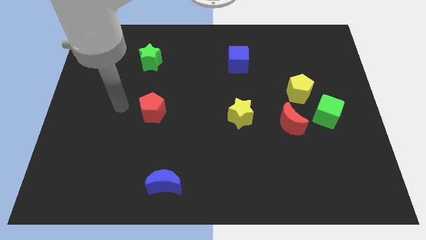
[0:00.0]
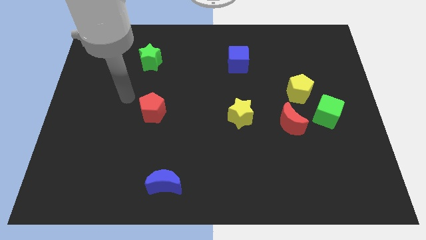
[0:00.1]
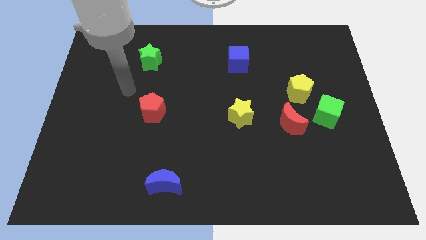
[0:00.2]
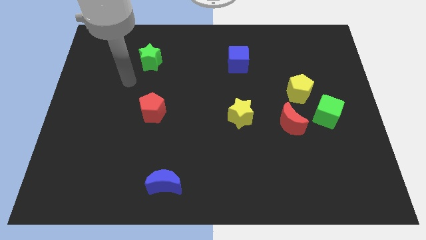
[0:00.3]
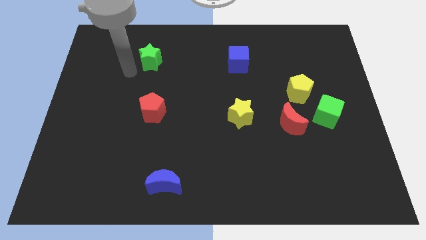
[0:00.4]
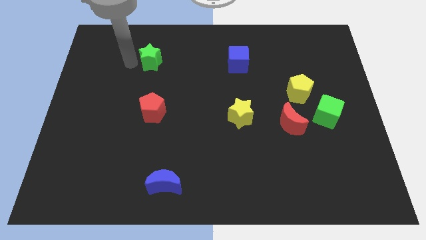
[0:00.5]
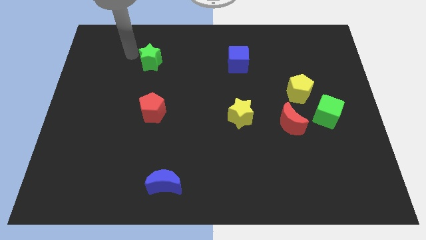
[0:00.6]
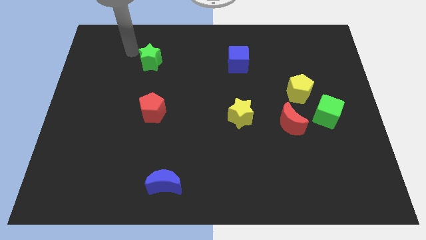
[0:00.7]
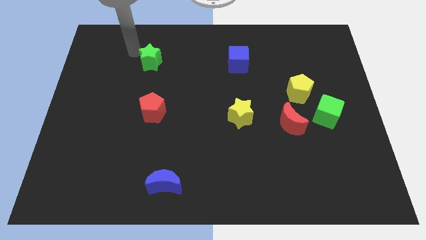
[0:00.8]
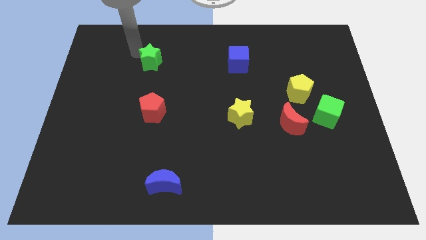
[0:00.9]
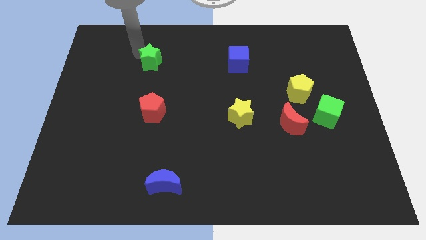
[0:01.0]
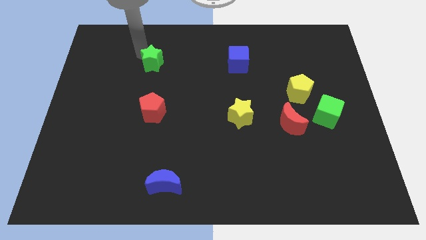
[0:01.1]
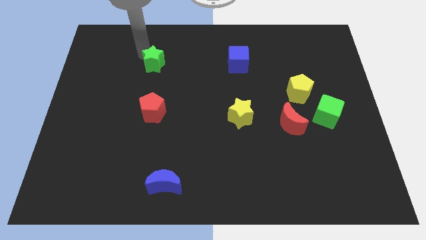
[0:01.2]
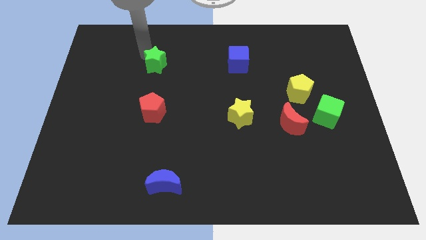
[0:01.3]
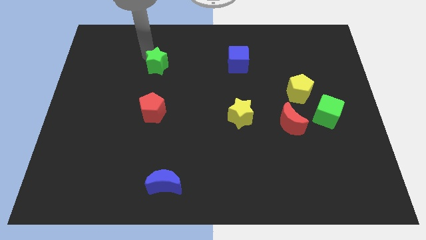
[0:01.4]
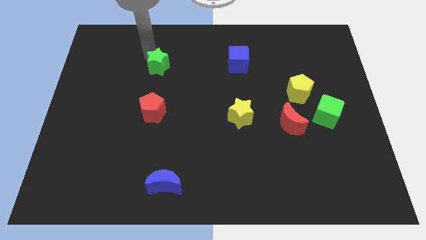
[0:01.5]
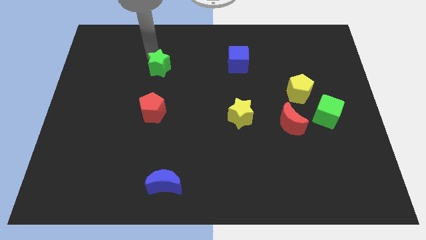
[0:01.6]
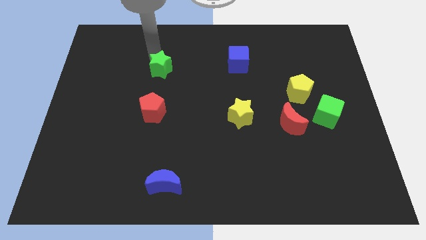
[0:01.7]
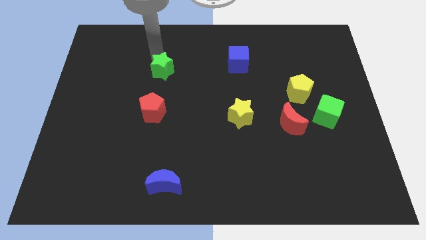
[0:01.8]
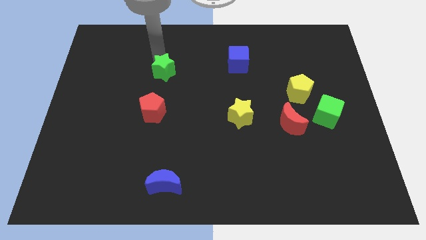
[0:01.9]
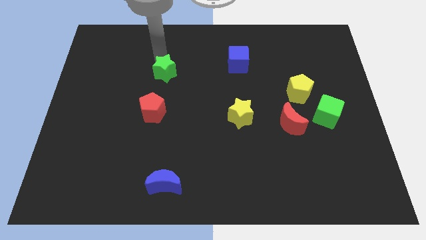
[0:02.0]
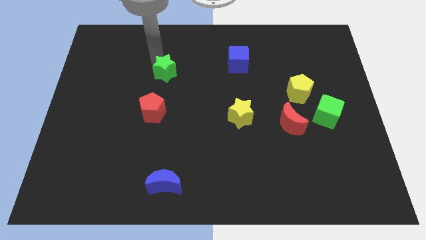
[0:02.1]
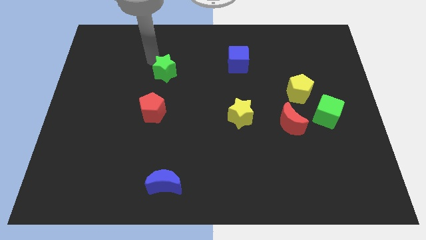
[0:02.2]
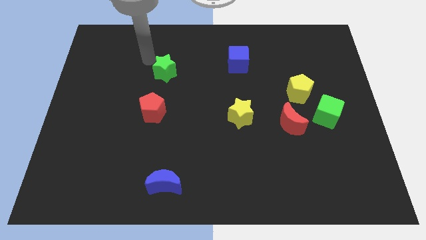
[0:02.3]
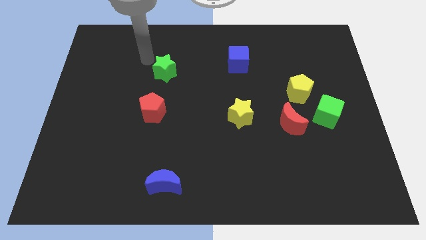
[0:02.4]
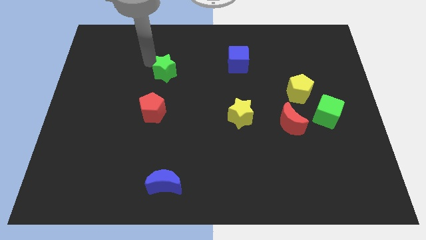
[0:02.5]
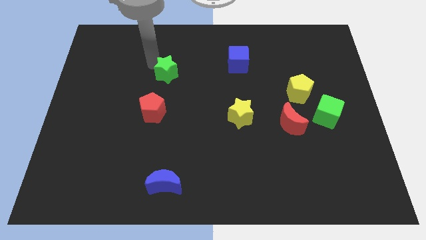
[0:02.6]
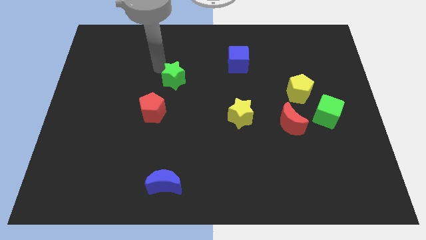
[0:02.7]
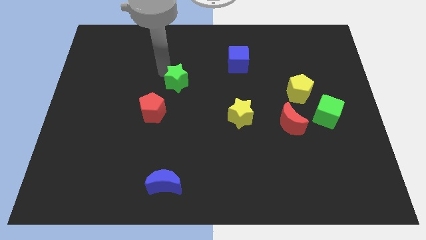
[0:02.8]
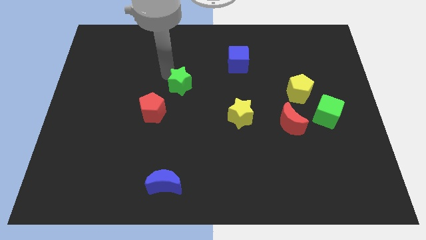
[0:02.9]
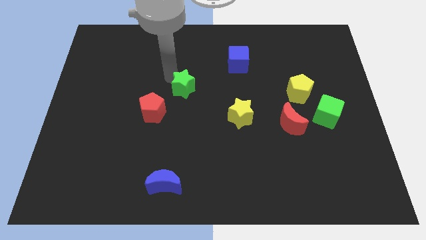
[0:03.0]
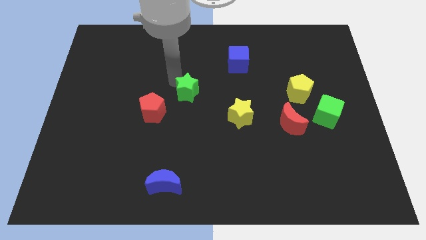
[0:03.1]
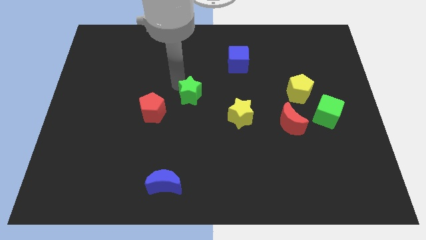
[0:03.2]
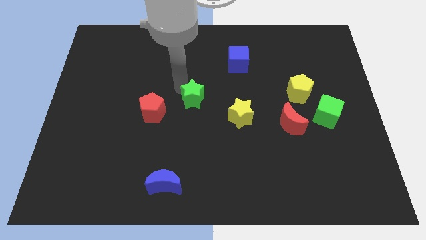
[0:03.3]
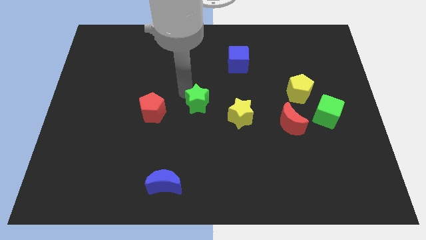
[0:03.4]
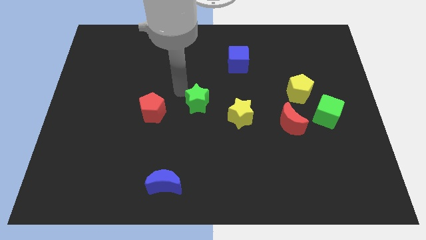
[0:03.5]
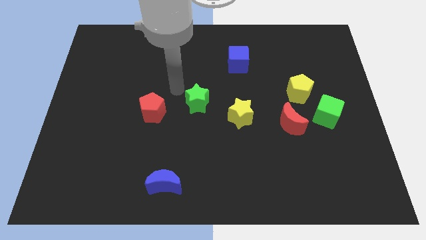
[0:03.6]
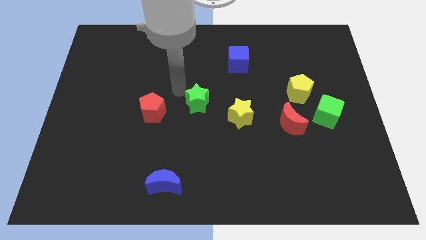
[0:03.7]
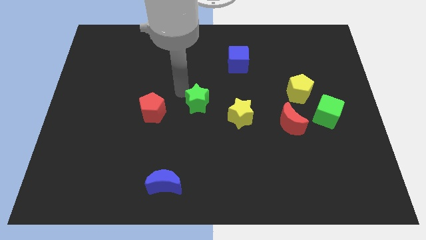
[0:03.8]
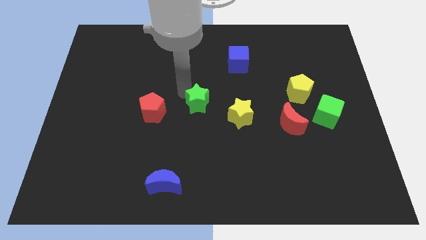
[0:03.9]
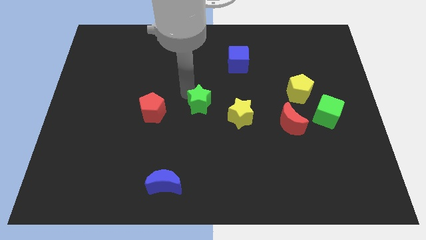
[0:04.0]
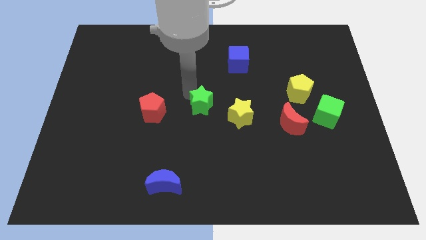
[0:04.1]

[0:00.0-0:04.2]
push the green star downwards and right

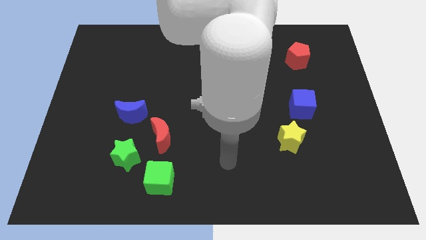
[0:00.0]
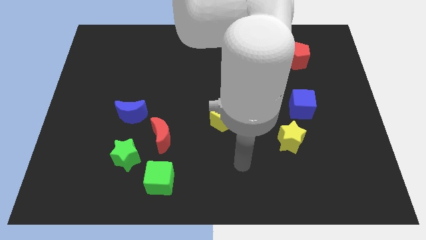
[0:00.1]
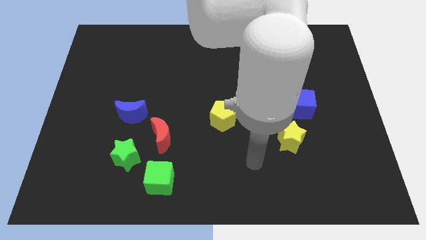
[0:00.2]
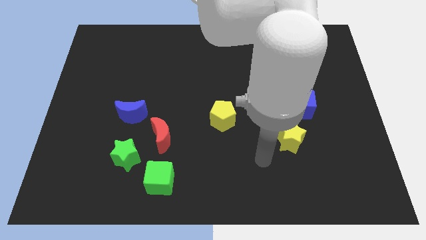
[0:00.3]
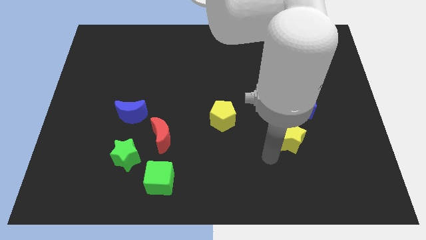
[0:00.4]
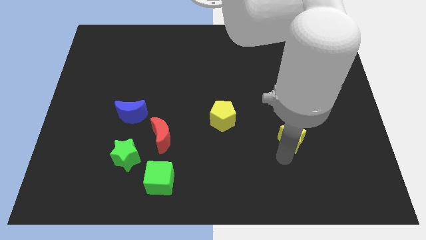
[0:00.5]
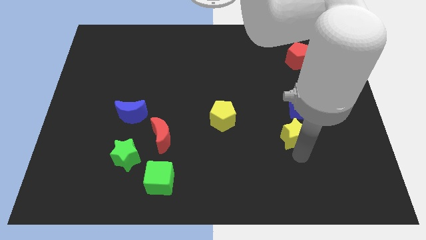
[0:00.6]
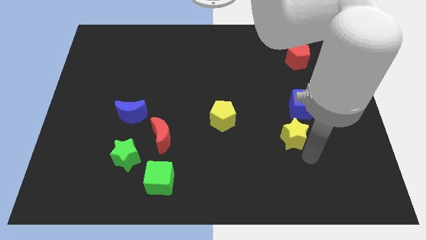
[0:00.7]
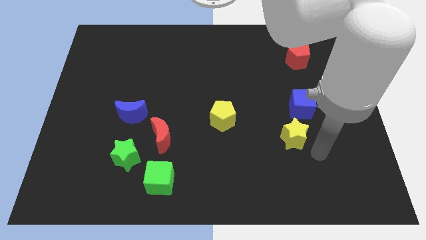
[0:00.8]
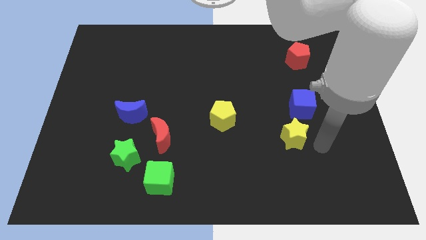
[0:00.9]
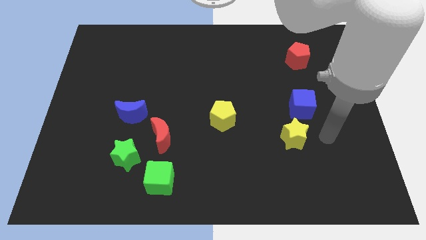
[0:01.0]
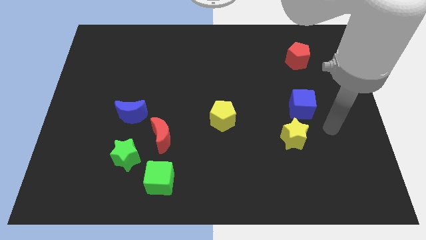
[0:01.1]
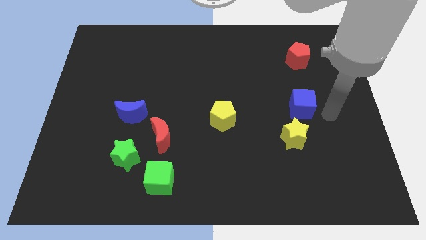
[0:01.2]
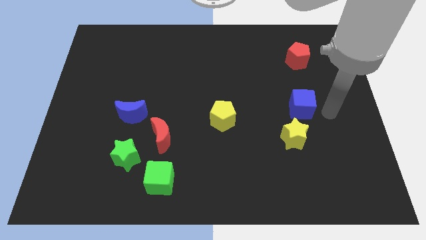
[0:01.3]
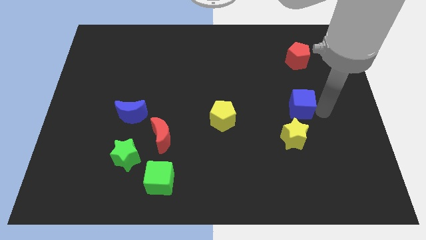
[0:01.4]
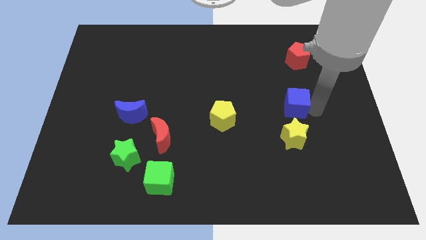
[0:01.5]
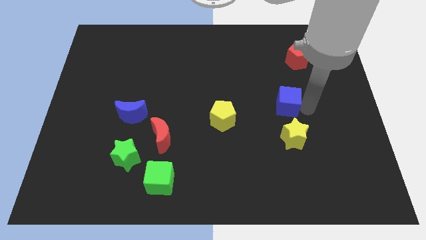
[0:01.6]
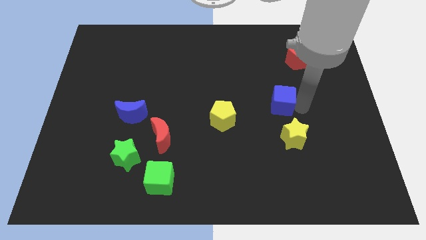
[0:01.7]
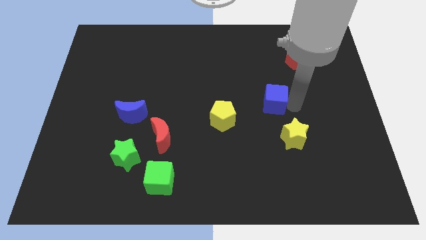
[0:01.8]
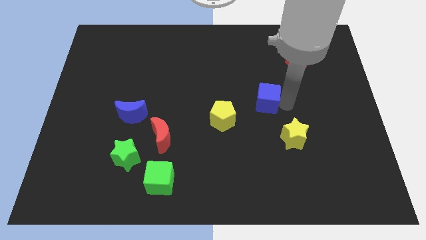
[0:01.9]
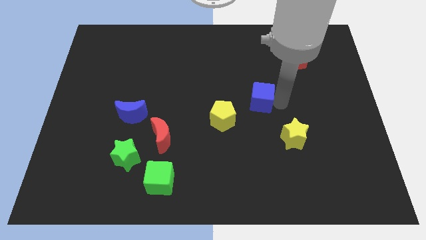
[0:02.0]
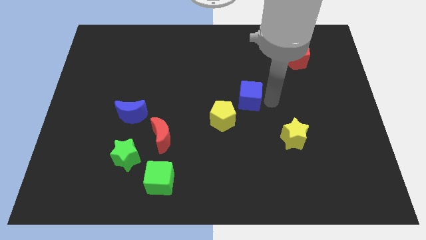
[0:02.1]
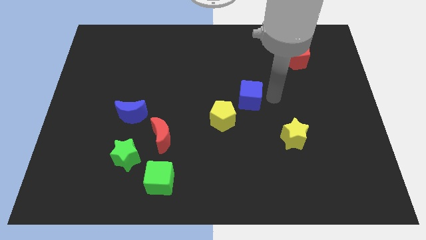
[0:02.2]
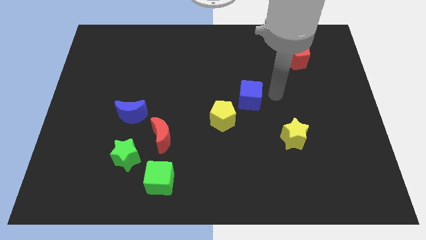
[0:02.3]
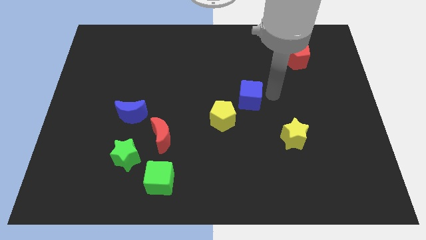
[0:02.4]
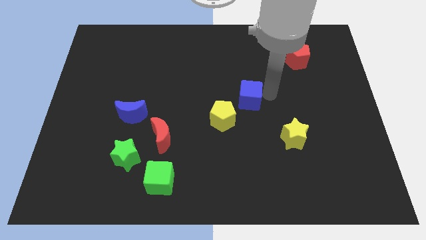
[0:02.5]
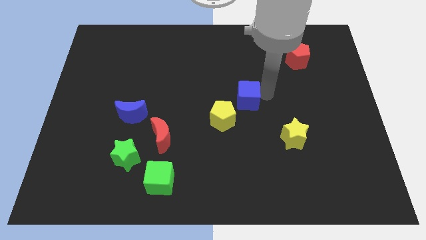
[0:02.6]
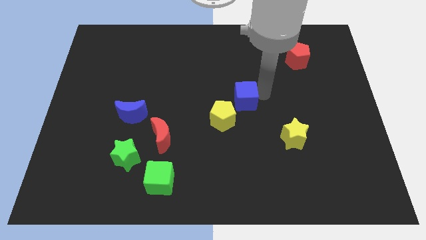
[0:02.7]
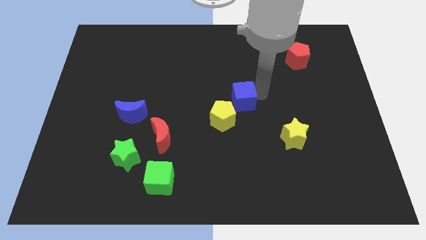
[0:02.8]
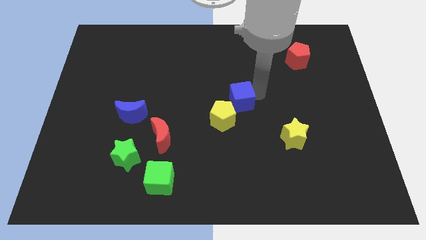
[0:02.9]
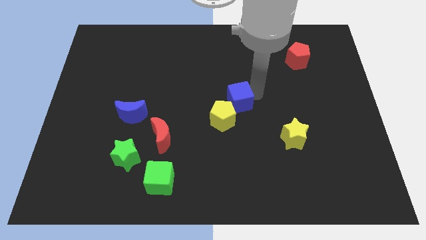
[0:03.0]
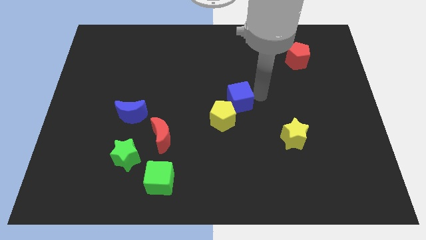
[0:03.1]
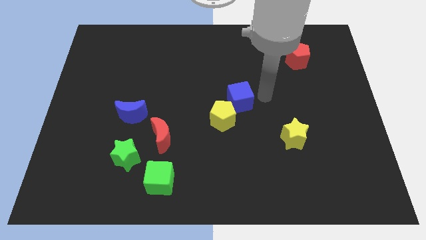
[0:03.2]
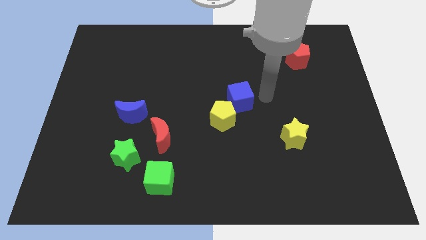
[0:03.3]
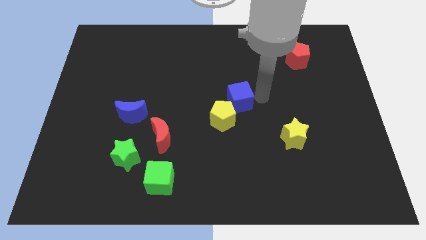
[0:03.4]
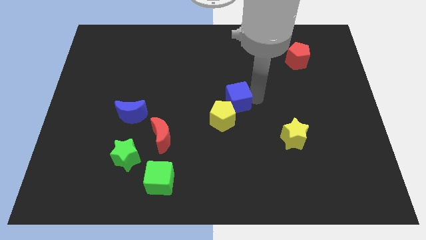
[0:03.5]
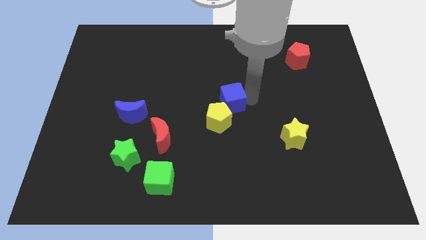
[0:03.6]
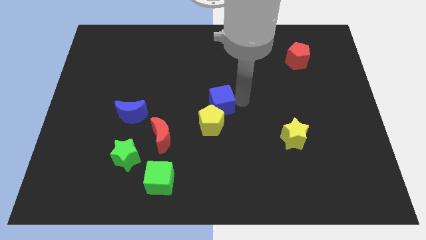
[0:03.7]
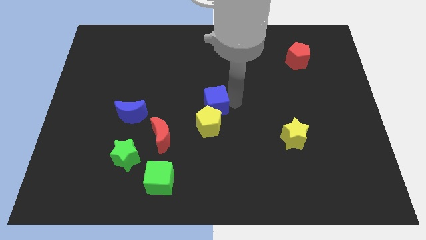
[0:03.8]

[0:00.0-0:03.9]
slide the blue cube to the left
